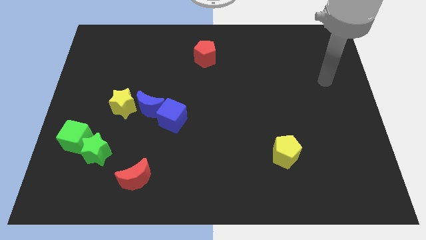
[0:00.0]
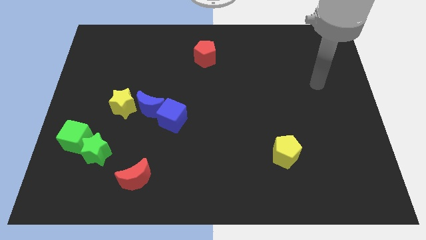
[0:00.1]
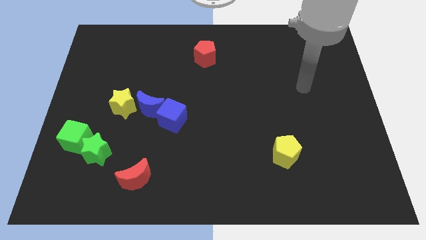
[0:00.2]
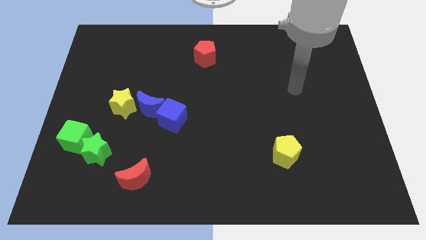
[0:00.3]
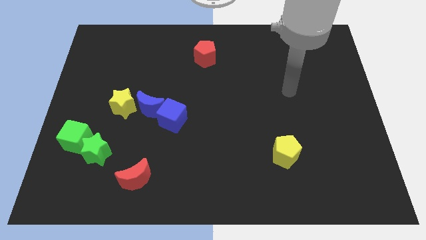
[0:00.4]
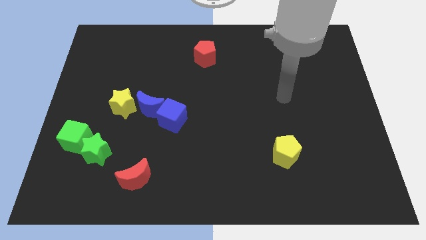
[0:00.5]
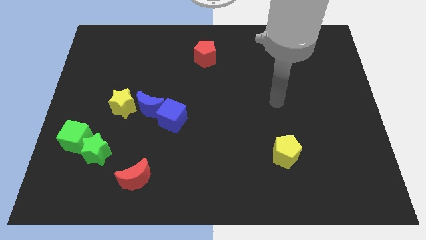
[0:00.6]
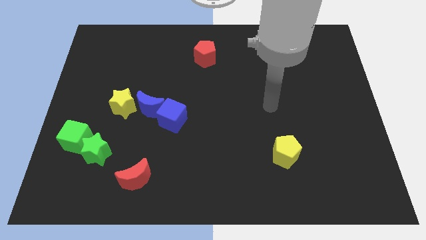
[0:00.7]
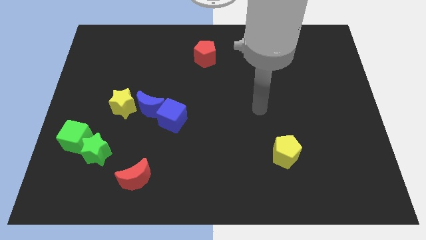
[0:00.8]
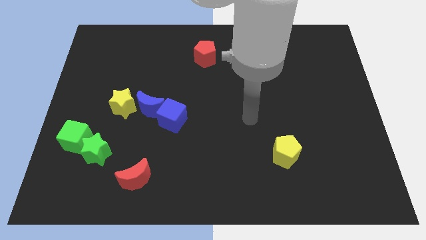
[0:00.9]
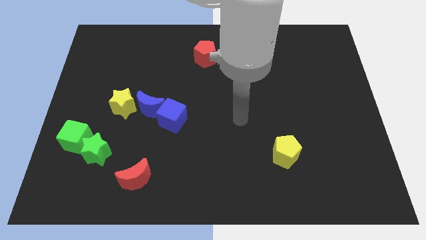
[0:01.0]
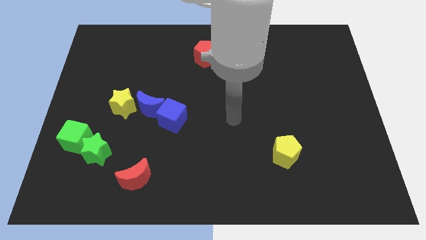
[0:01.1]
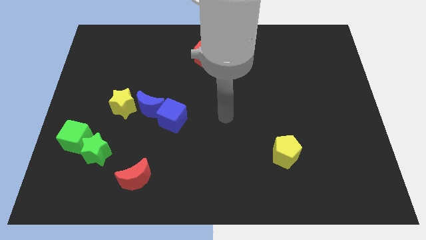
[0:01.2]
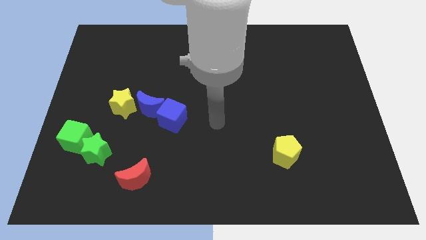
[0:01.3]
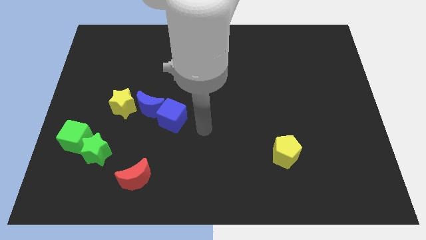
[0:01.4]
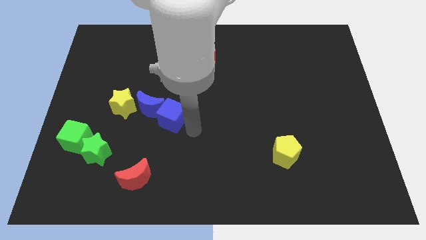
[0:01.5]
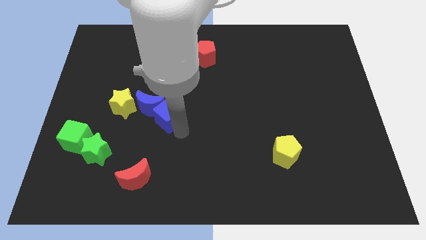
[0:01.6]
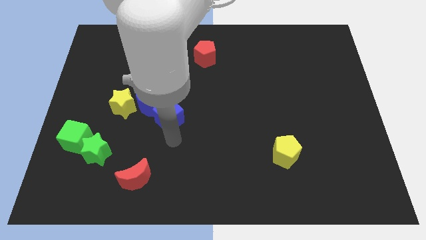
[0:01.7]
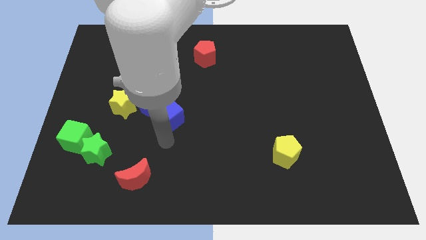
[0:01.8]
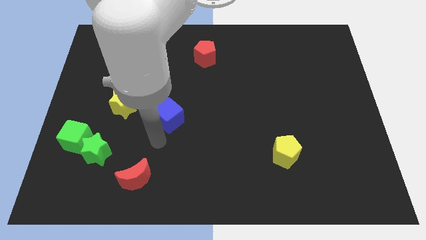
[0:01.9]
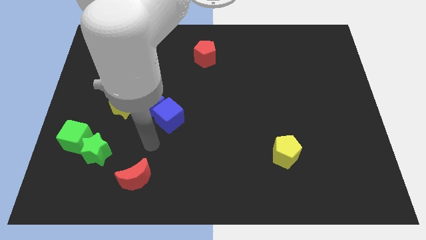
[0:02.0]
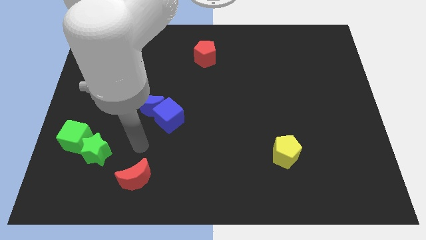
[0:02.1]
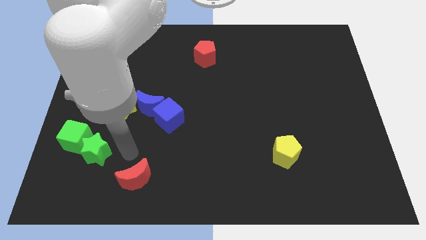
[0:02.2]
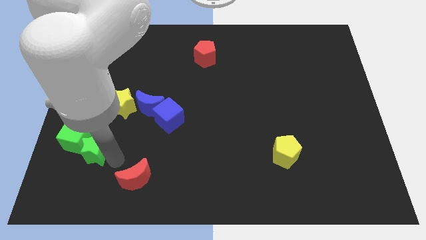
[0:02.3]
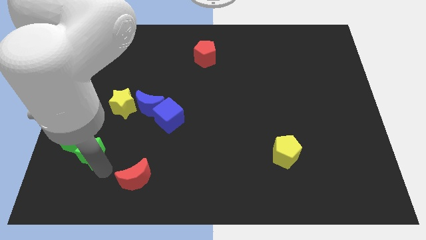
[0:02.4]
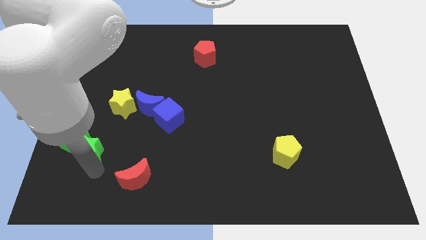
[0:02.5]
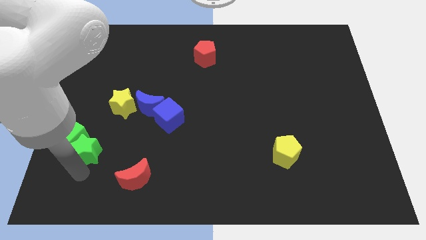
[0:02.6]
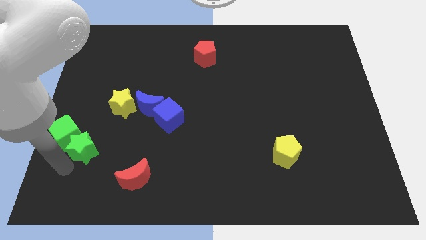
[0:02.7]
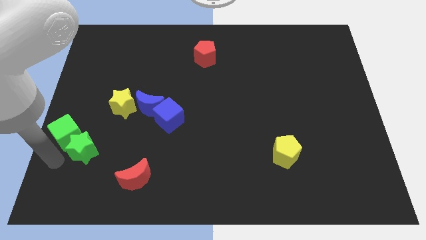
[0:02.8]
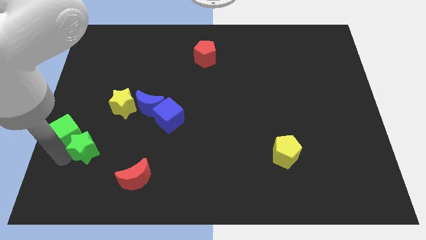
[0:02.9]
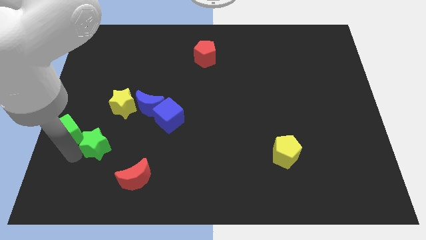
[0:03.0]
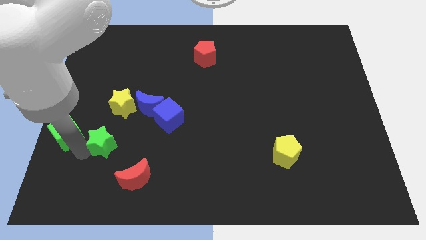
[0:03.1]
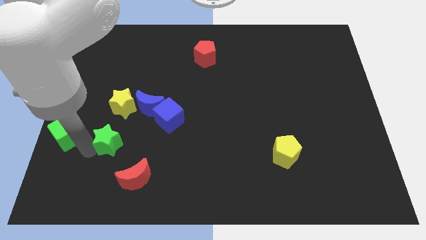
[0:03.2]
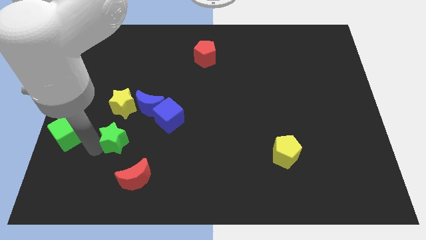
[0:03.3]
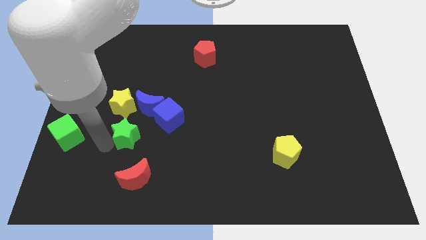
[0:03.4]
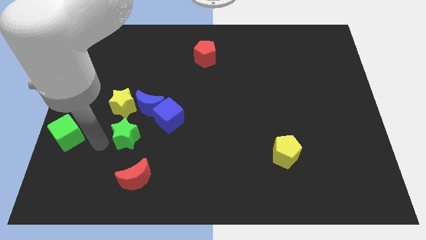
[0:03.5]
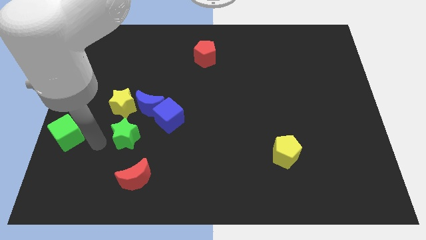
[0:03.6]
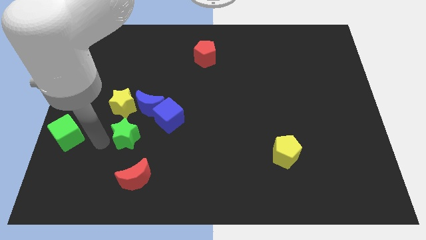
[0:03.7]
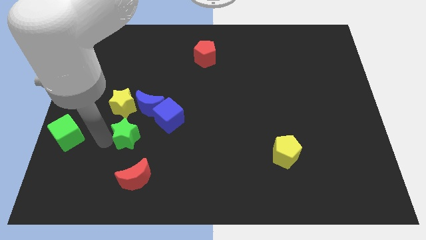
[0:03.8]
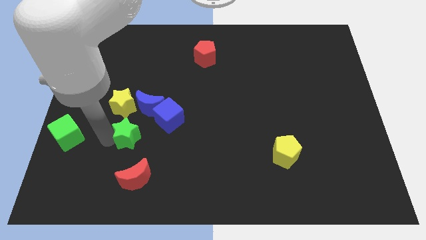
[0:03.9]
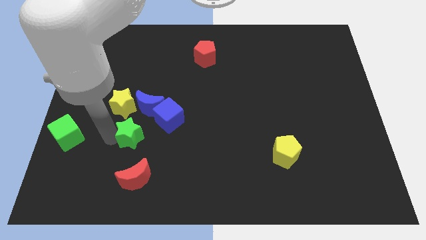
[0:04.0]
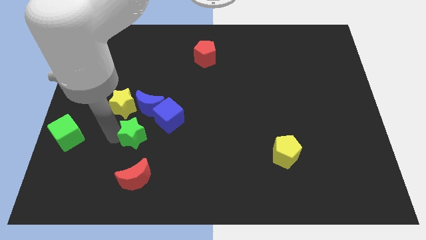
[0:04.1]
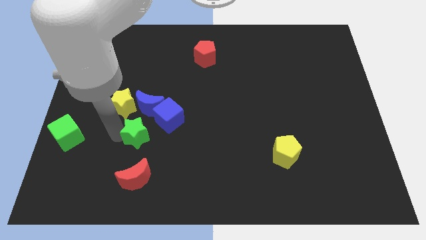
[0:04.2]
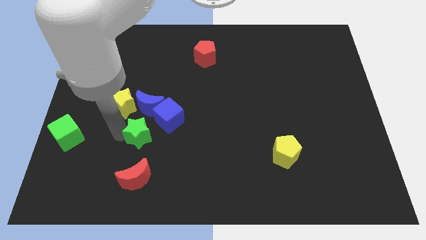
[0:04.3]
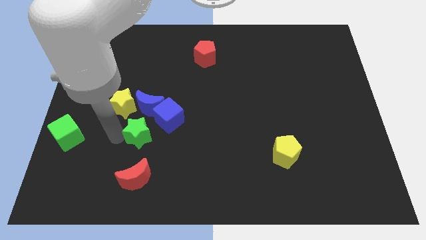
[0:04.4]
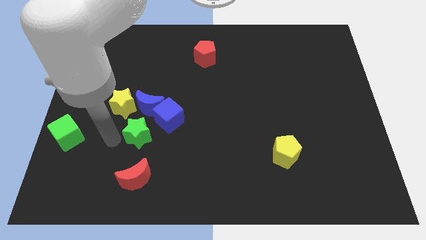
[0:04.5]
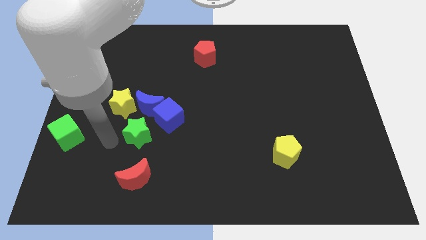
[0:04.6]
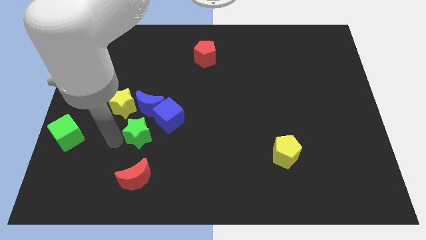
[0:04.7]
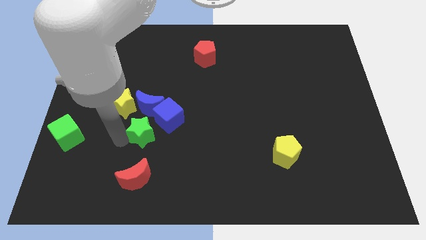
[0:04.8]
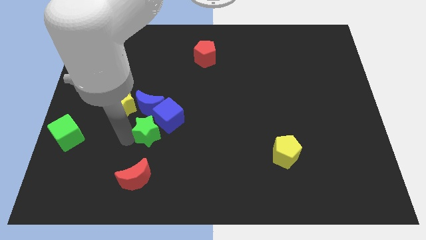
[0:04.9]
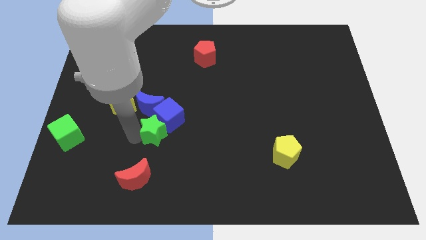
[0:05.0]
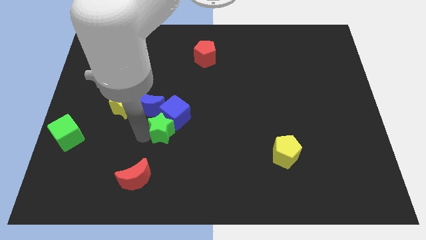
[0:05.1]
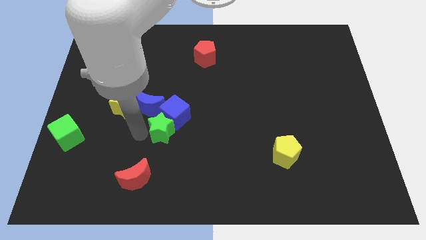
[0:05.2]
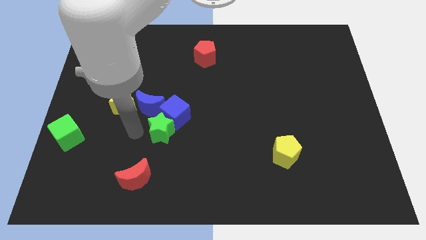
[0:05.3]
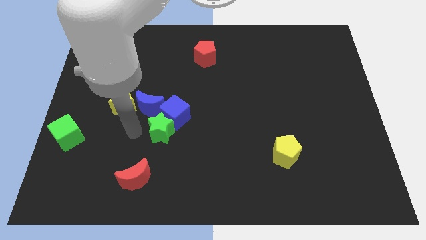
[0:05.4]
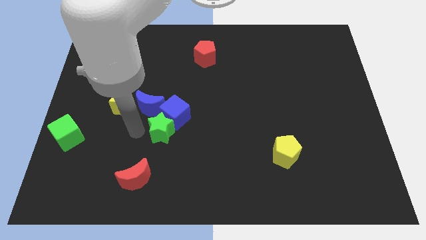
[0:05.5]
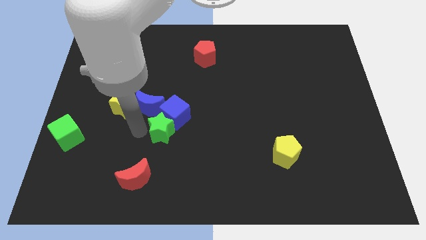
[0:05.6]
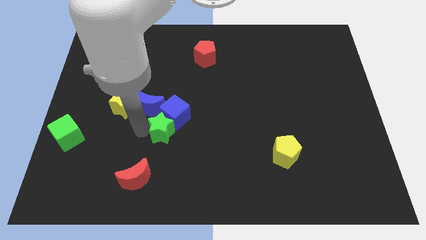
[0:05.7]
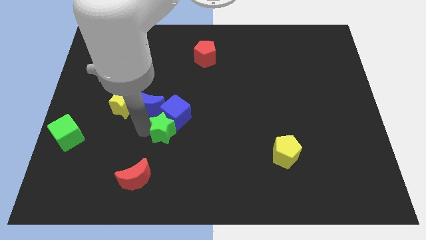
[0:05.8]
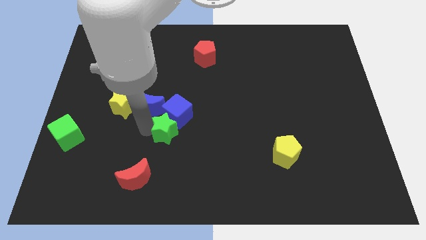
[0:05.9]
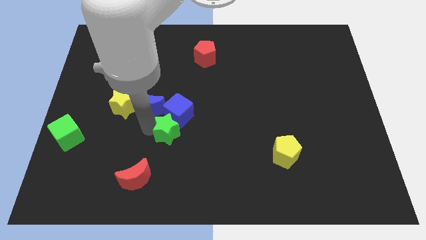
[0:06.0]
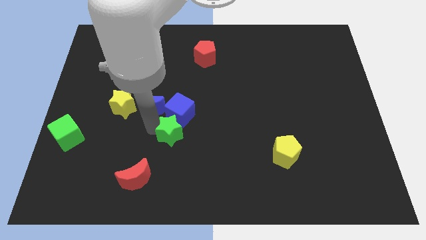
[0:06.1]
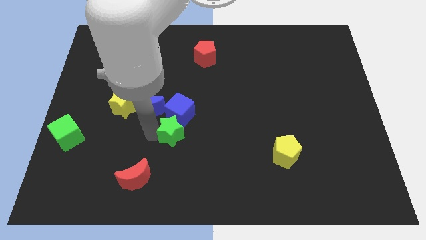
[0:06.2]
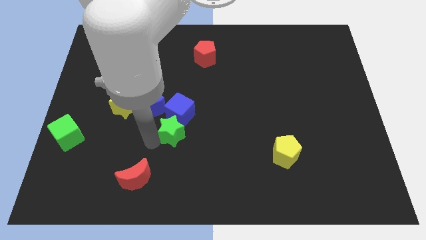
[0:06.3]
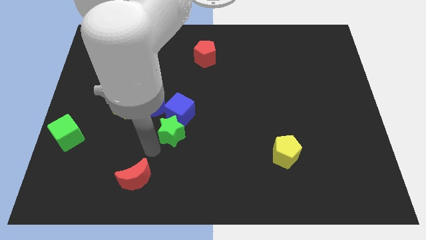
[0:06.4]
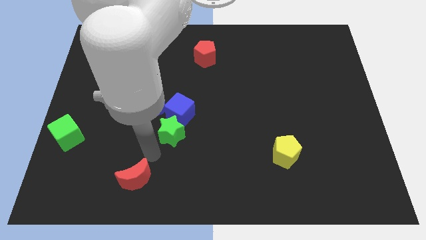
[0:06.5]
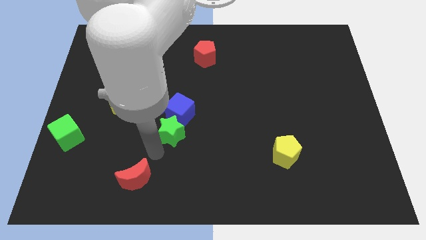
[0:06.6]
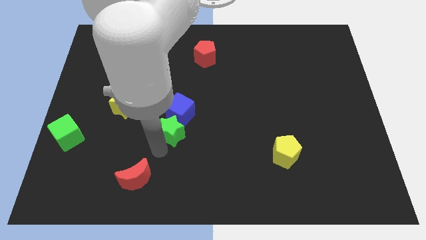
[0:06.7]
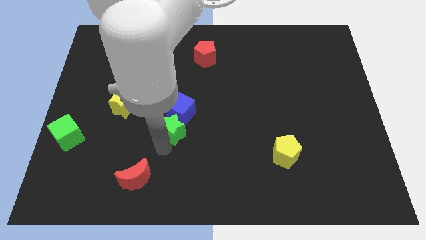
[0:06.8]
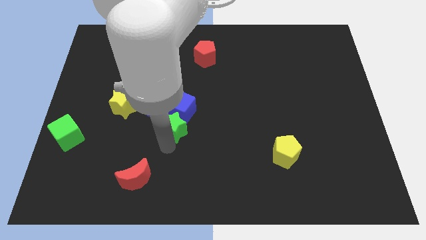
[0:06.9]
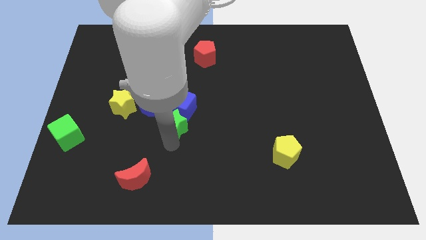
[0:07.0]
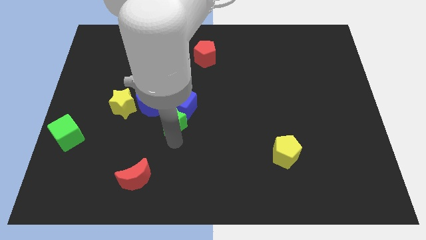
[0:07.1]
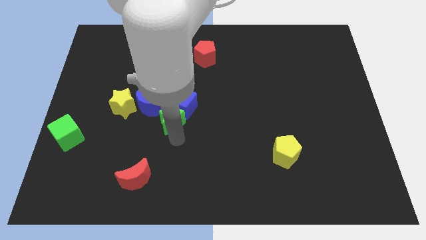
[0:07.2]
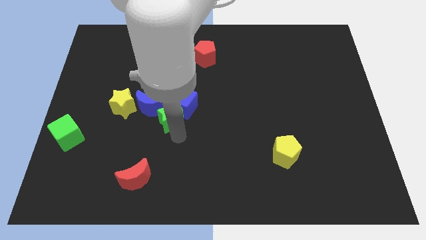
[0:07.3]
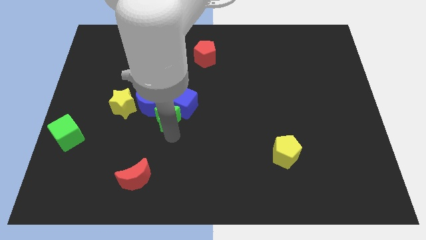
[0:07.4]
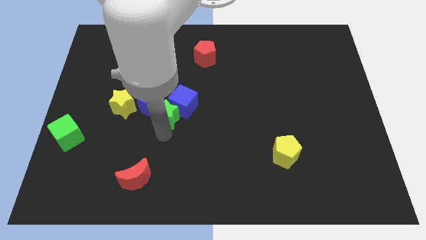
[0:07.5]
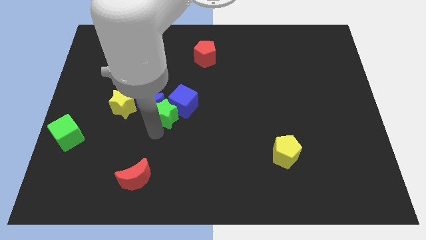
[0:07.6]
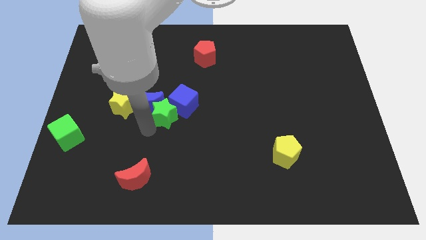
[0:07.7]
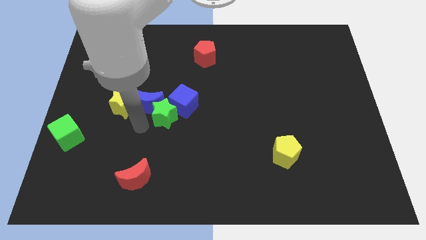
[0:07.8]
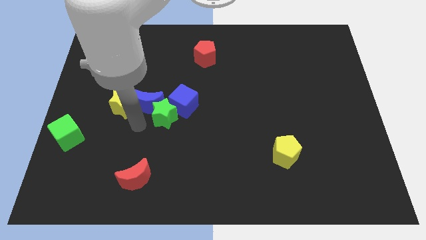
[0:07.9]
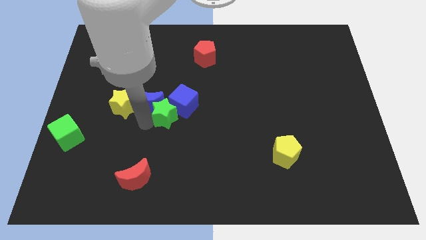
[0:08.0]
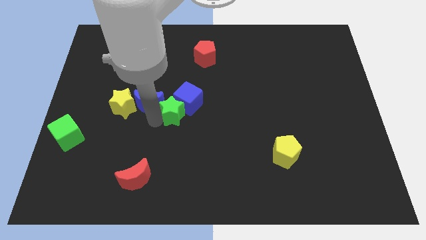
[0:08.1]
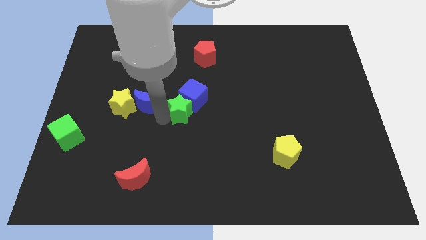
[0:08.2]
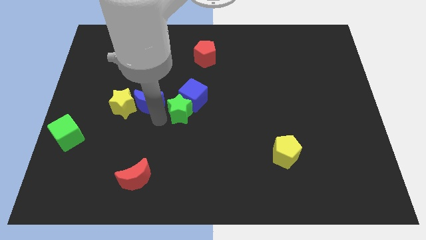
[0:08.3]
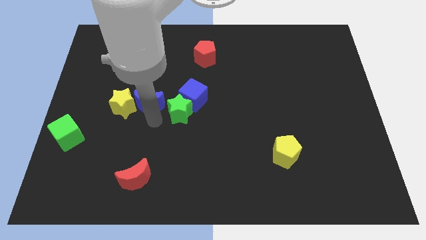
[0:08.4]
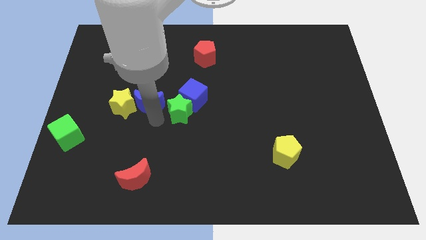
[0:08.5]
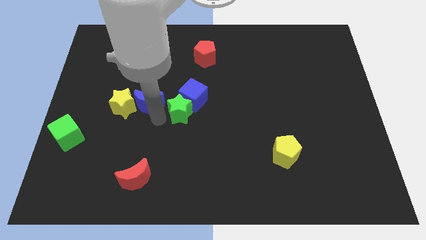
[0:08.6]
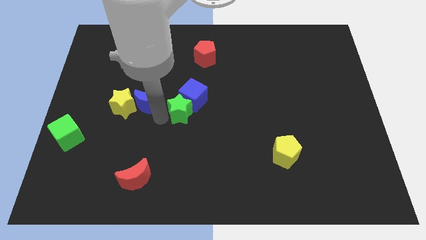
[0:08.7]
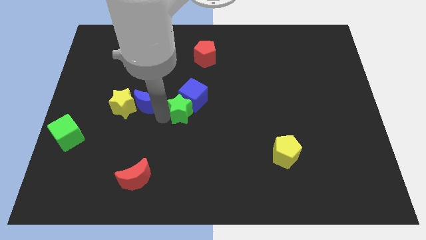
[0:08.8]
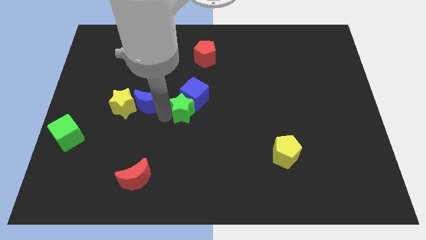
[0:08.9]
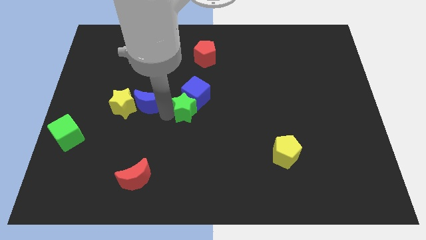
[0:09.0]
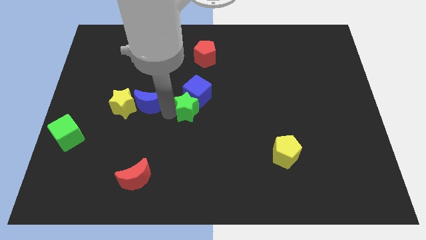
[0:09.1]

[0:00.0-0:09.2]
move the green star up and right diagonally
